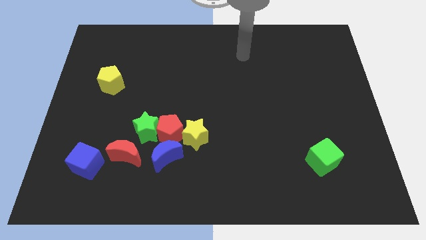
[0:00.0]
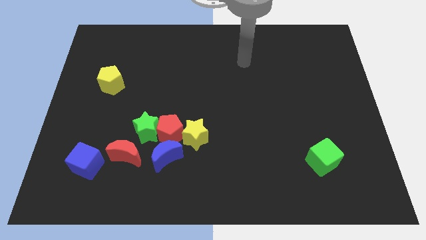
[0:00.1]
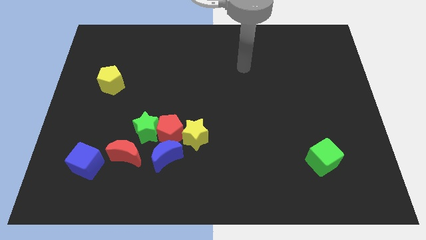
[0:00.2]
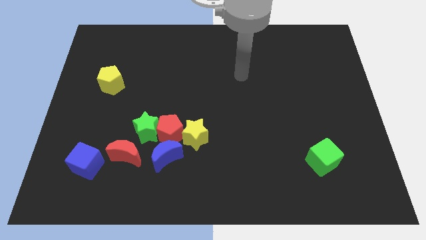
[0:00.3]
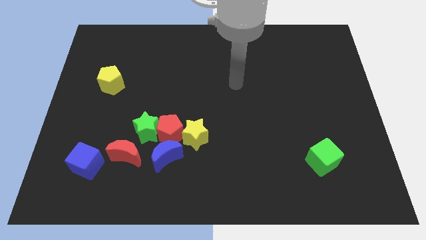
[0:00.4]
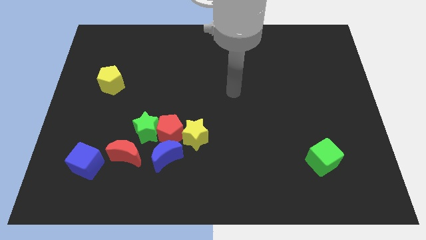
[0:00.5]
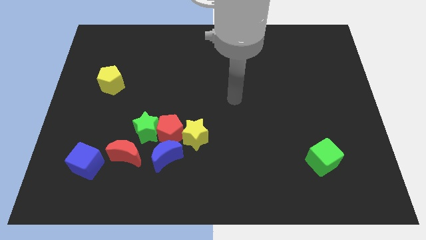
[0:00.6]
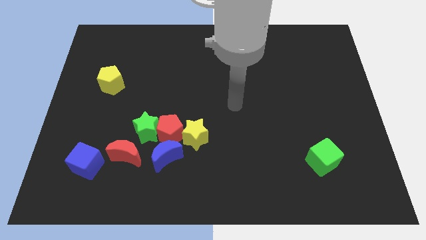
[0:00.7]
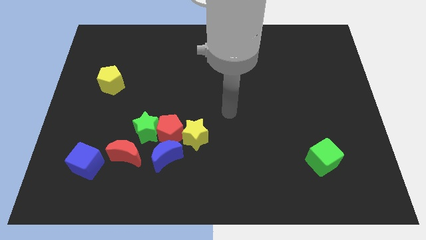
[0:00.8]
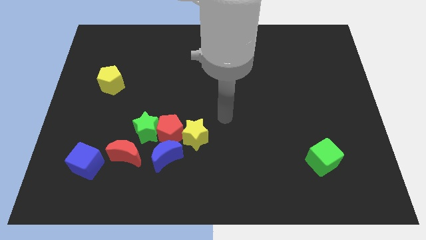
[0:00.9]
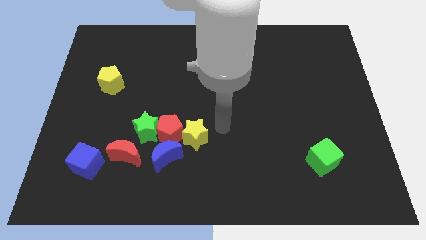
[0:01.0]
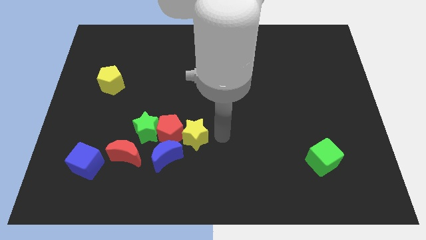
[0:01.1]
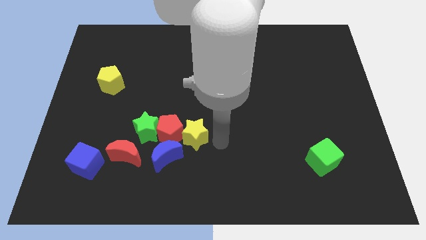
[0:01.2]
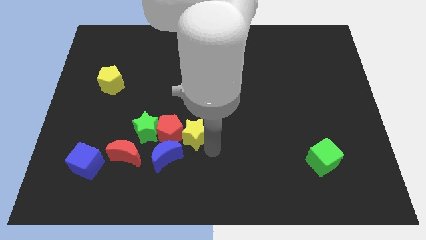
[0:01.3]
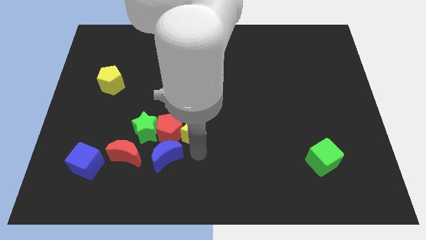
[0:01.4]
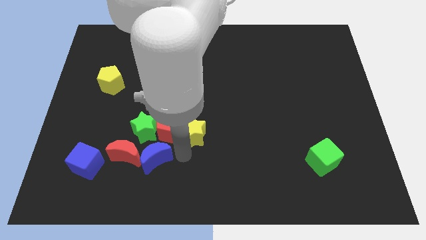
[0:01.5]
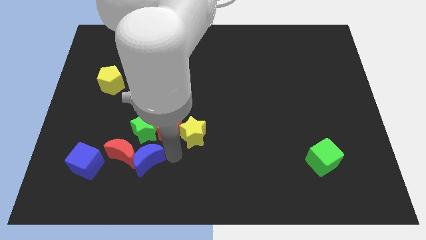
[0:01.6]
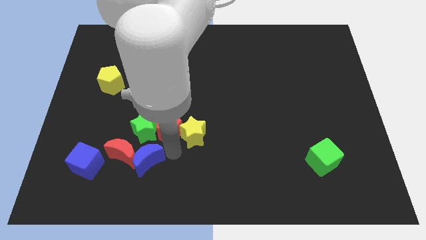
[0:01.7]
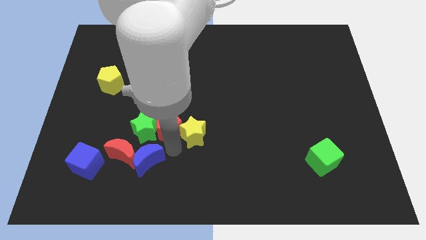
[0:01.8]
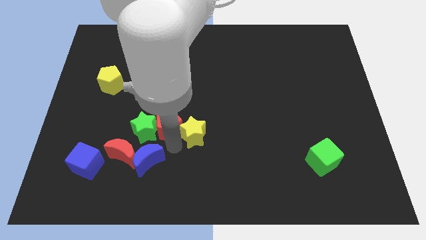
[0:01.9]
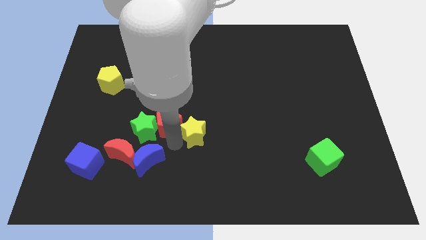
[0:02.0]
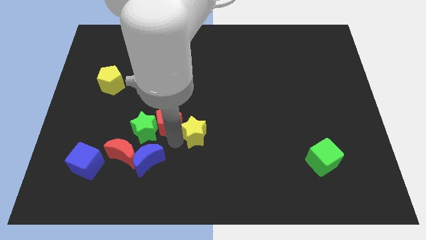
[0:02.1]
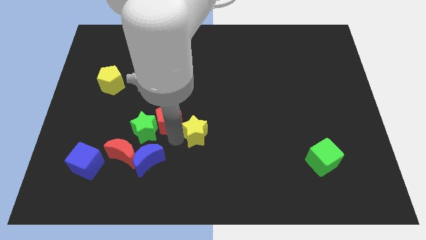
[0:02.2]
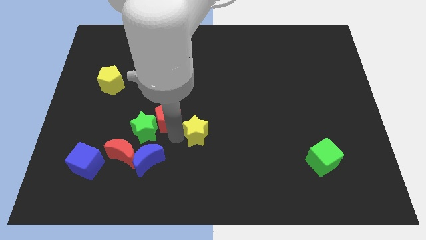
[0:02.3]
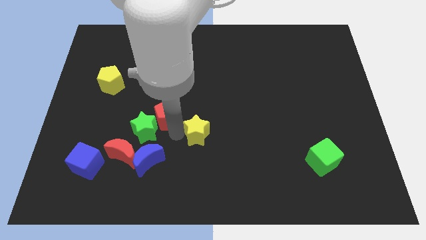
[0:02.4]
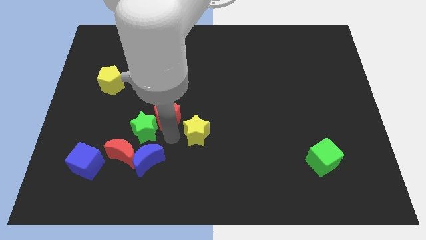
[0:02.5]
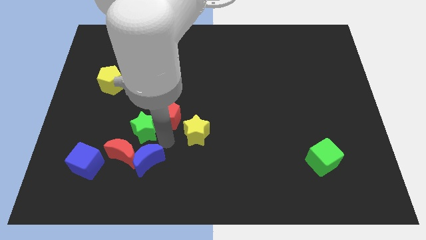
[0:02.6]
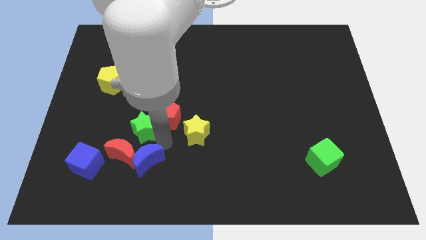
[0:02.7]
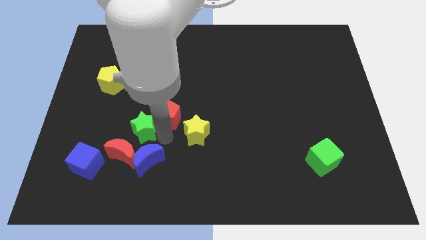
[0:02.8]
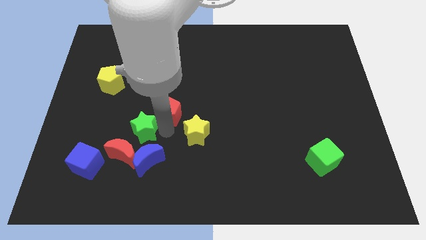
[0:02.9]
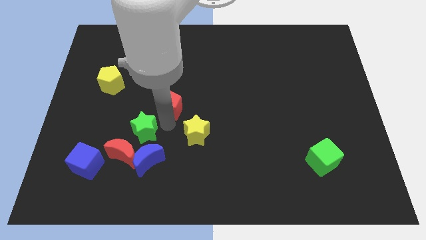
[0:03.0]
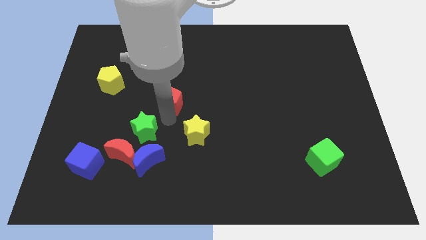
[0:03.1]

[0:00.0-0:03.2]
pull the red pentagon apart from the group

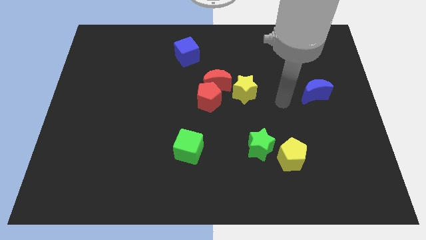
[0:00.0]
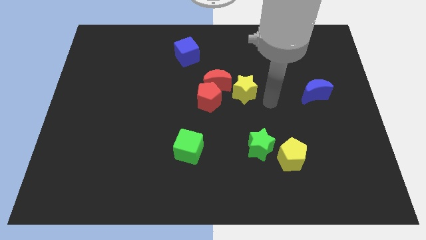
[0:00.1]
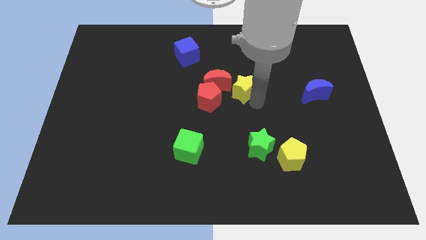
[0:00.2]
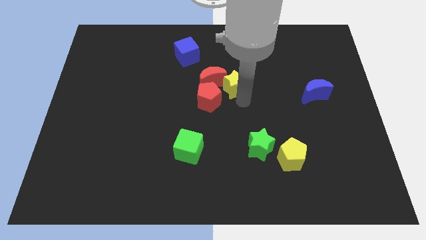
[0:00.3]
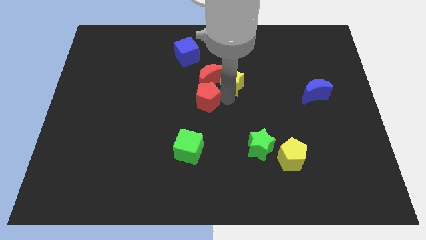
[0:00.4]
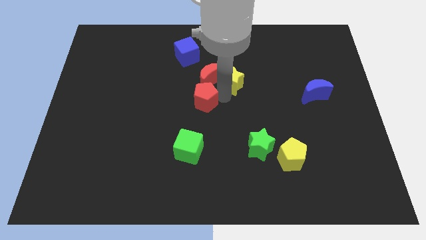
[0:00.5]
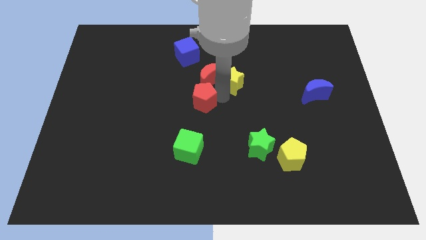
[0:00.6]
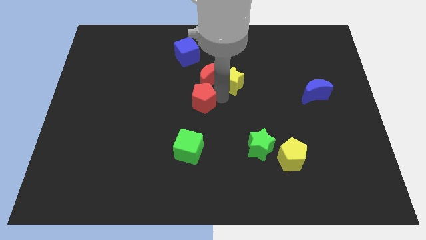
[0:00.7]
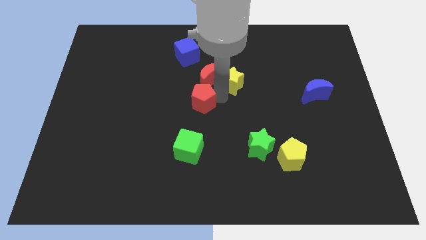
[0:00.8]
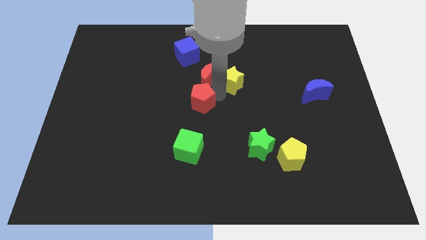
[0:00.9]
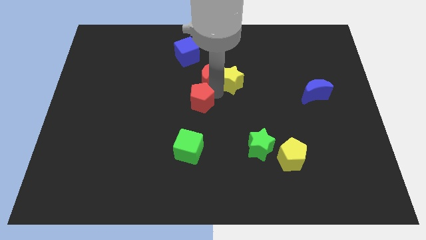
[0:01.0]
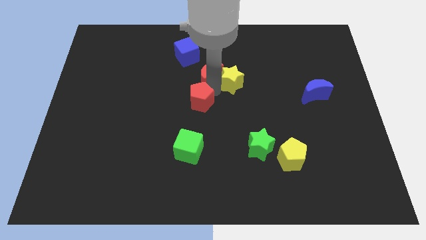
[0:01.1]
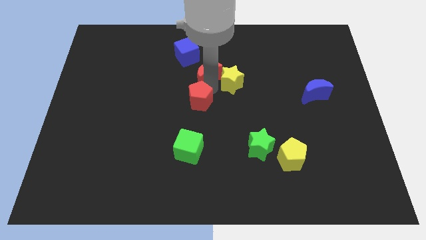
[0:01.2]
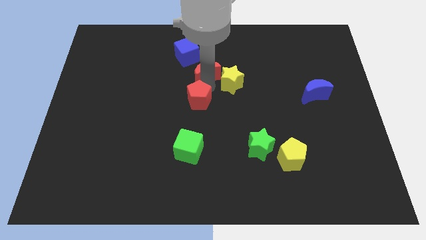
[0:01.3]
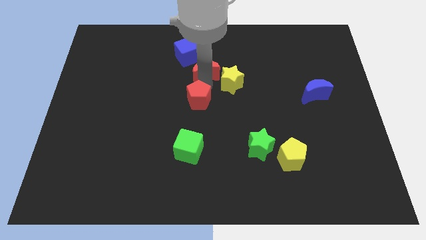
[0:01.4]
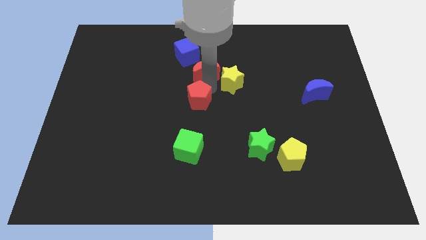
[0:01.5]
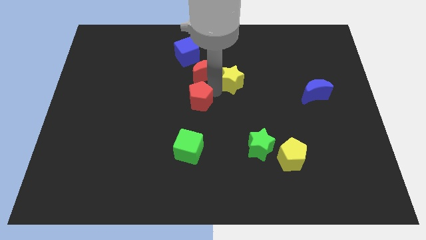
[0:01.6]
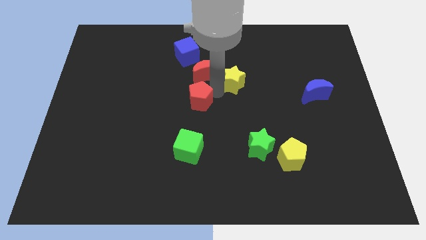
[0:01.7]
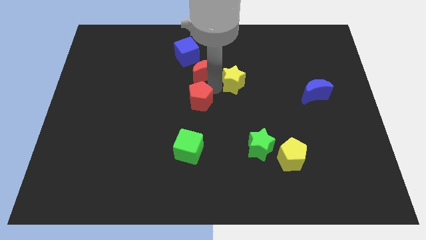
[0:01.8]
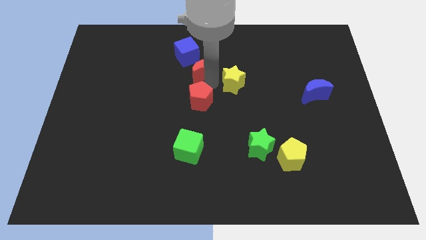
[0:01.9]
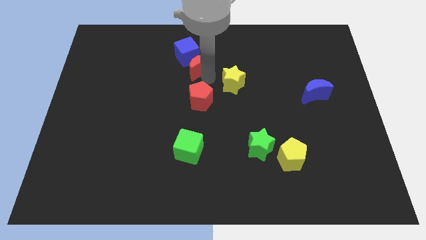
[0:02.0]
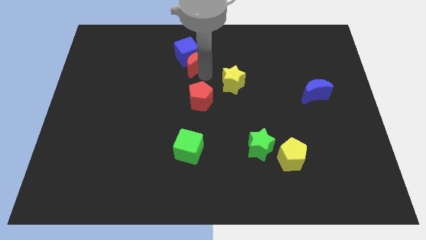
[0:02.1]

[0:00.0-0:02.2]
separate the red moon from the red pentagon and yellow star

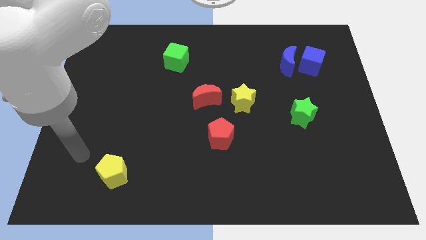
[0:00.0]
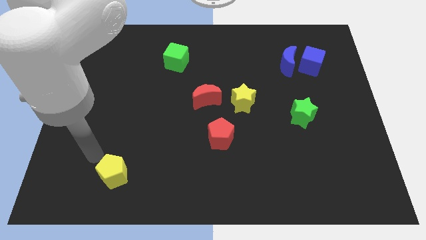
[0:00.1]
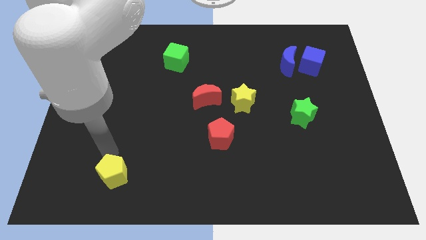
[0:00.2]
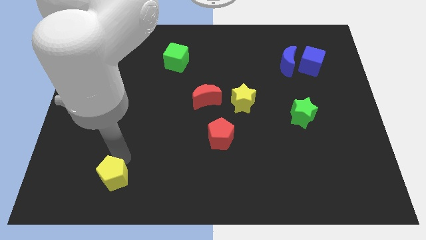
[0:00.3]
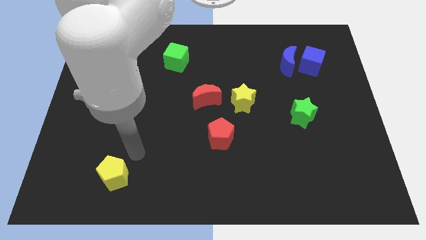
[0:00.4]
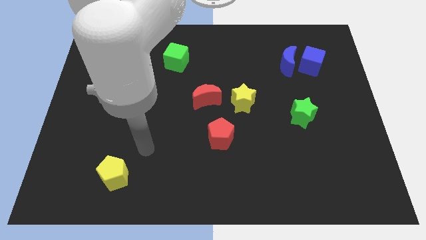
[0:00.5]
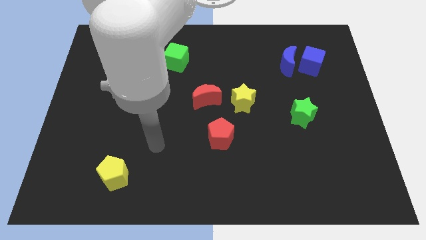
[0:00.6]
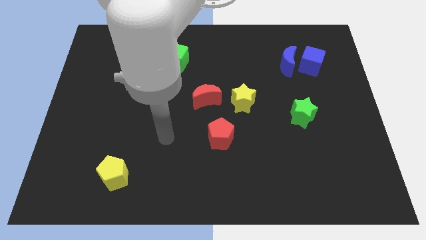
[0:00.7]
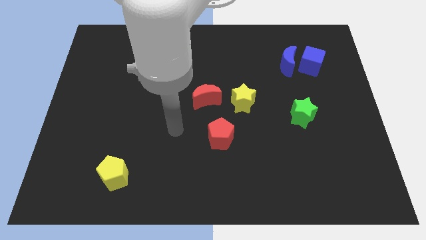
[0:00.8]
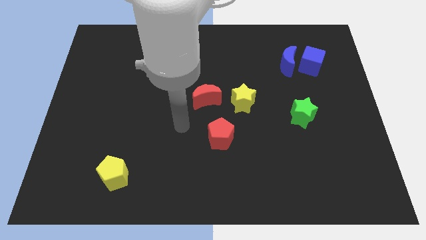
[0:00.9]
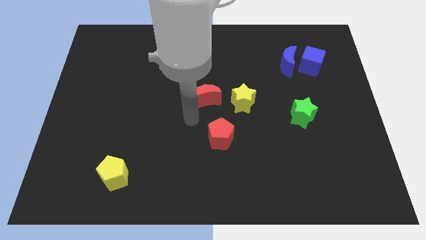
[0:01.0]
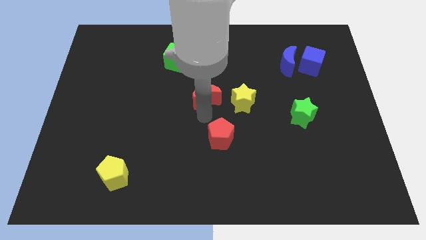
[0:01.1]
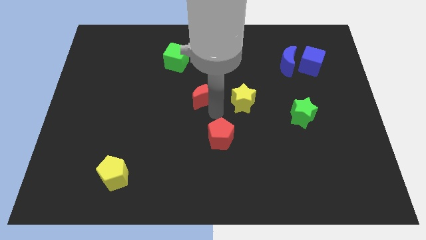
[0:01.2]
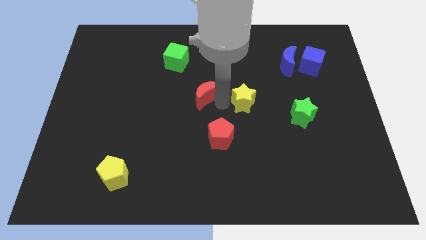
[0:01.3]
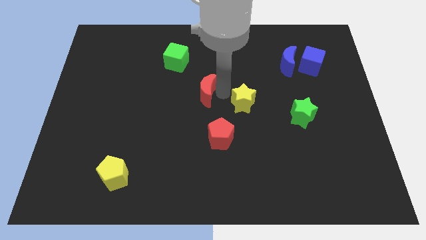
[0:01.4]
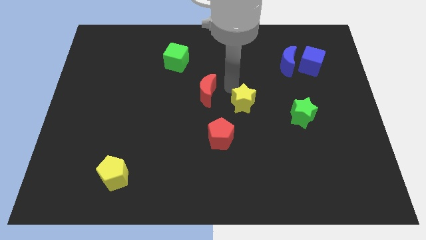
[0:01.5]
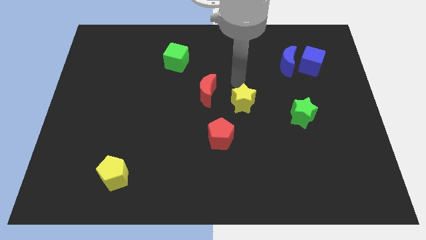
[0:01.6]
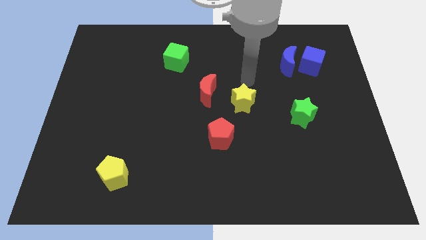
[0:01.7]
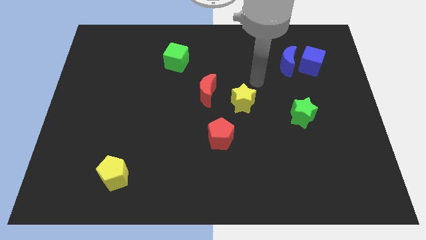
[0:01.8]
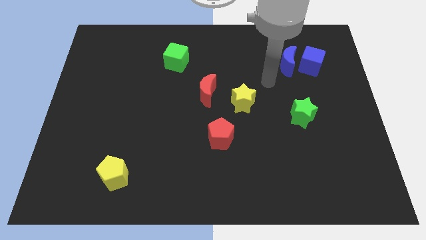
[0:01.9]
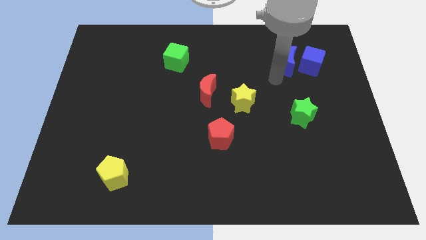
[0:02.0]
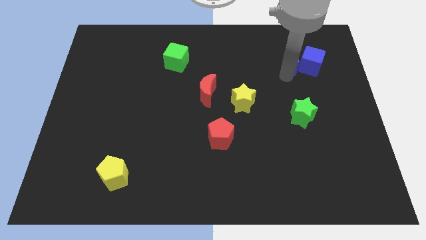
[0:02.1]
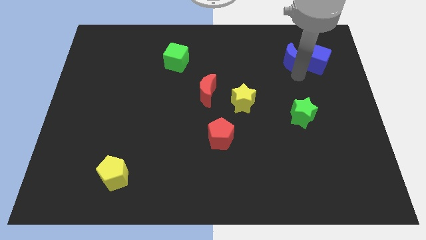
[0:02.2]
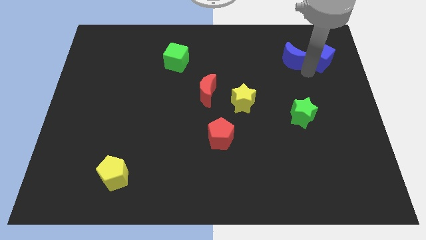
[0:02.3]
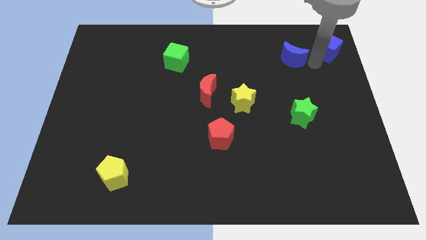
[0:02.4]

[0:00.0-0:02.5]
move the blue moon away from the blue cube

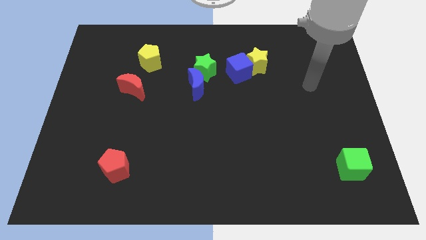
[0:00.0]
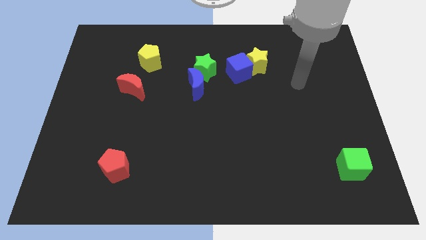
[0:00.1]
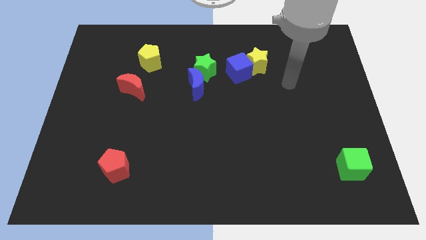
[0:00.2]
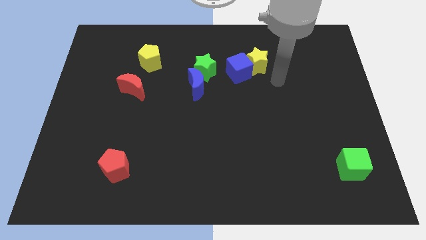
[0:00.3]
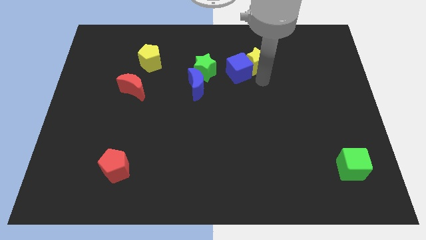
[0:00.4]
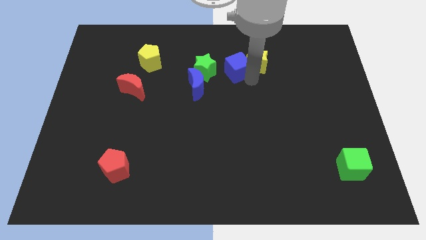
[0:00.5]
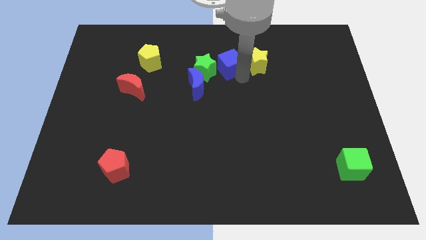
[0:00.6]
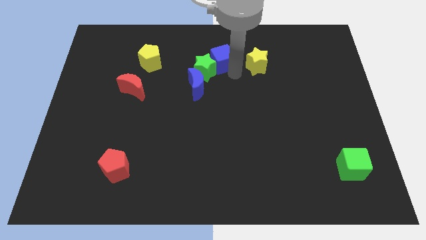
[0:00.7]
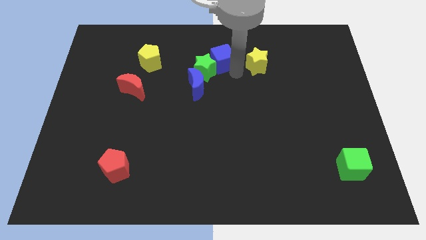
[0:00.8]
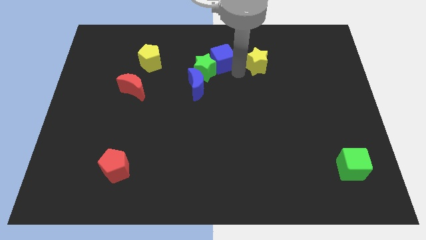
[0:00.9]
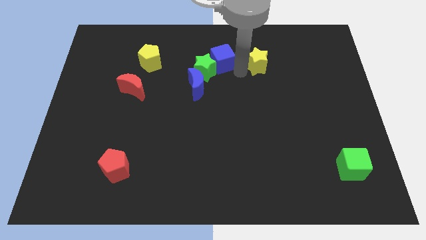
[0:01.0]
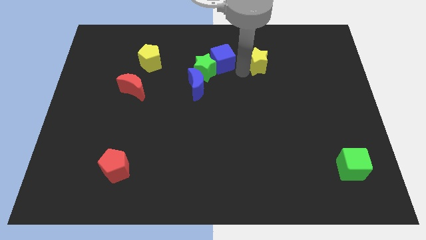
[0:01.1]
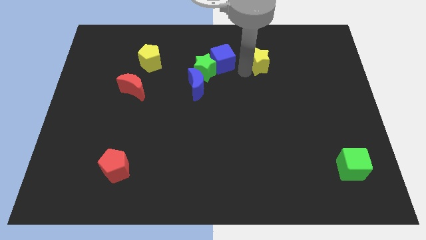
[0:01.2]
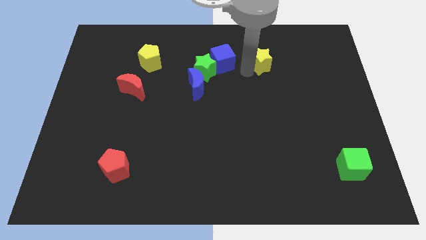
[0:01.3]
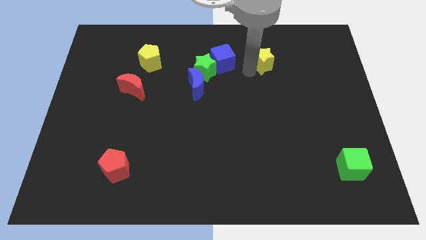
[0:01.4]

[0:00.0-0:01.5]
pull the yellow star apart from the blue cube
